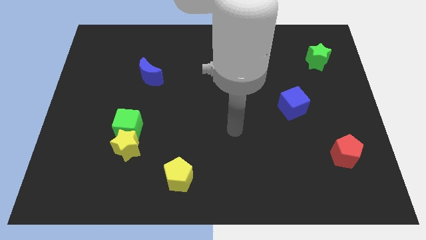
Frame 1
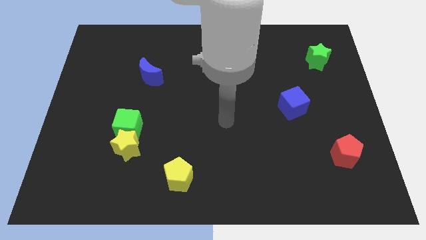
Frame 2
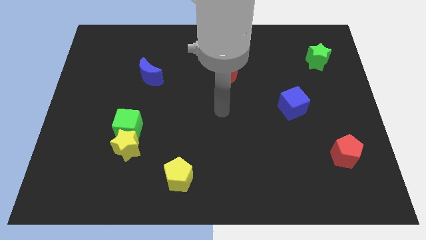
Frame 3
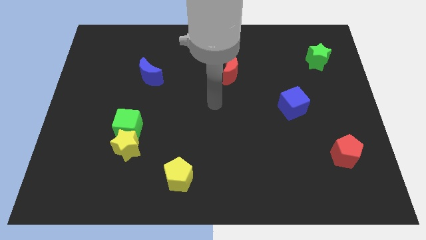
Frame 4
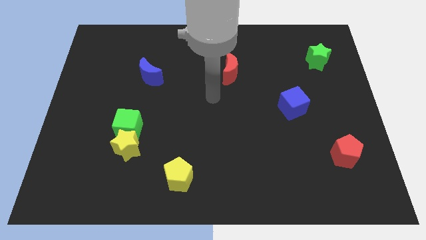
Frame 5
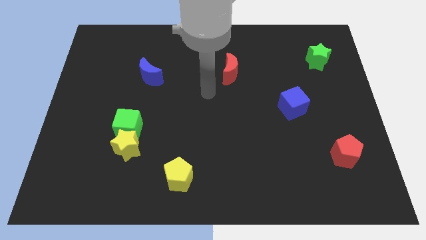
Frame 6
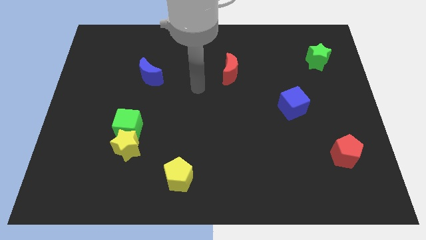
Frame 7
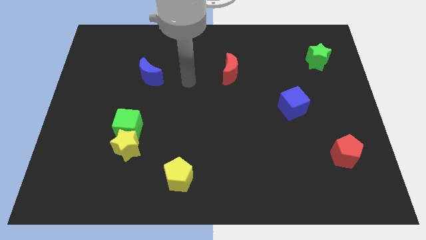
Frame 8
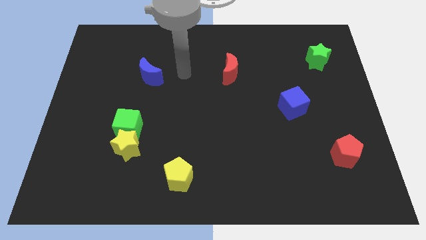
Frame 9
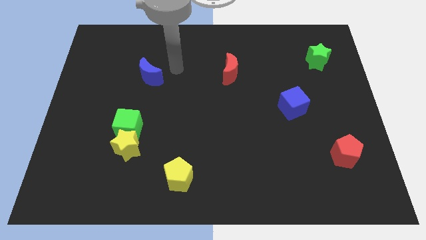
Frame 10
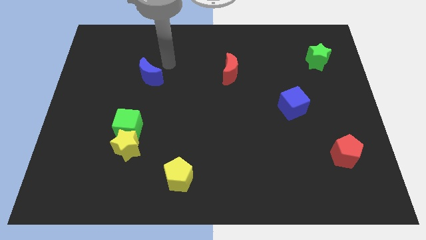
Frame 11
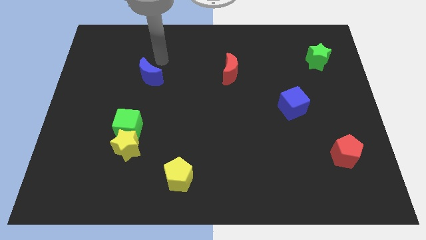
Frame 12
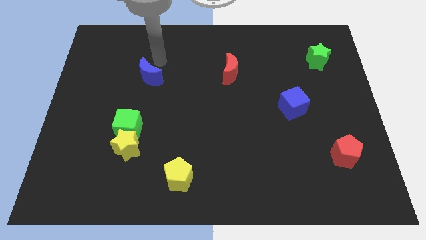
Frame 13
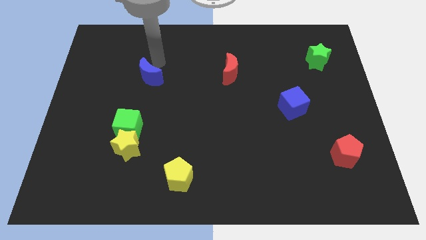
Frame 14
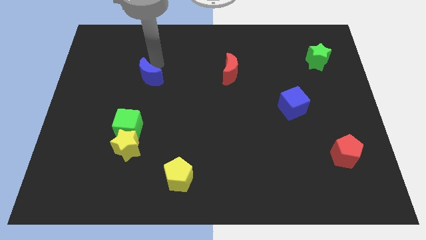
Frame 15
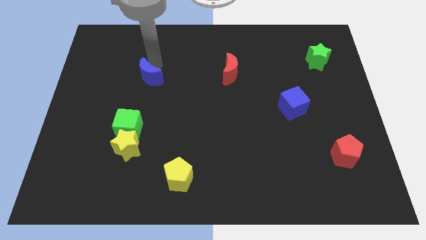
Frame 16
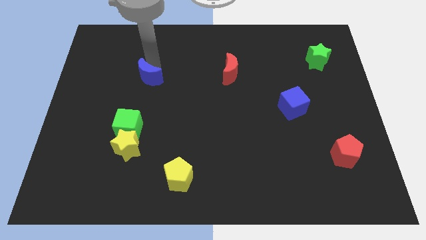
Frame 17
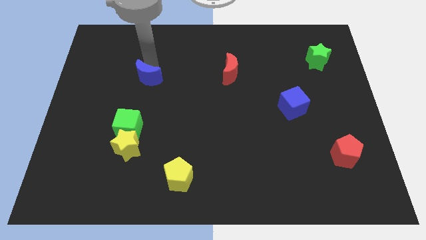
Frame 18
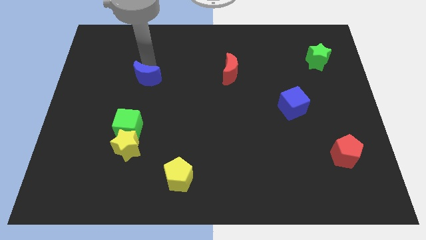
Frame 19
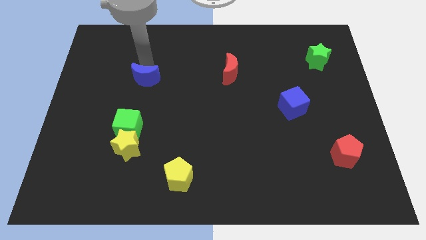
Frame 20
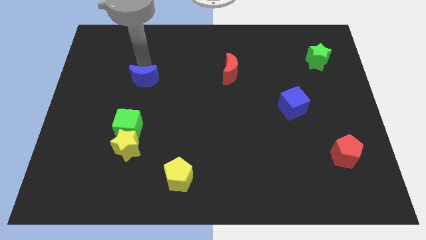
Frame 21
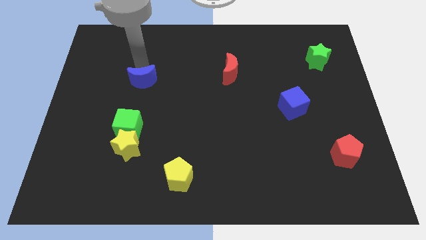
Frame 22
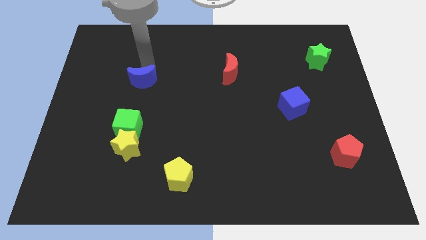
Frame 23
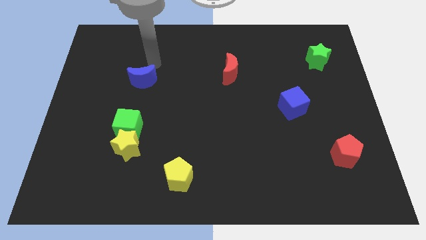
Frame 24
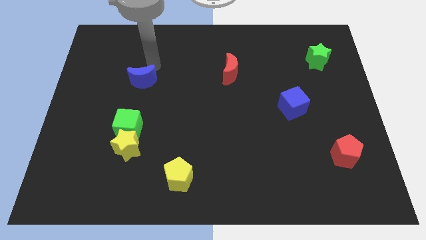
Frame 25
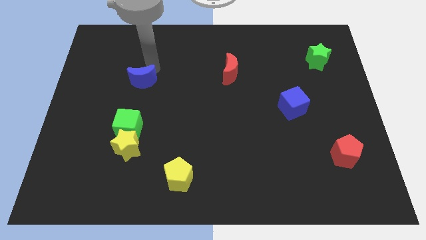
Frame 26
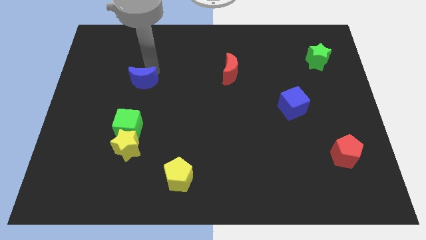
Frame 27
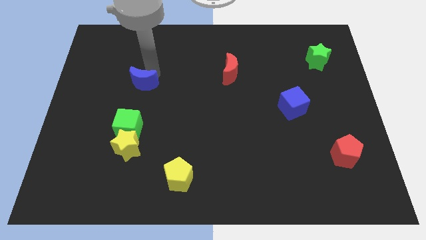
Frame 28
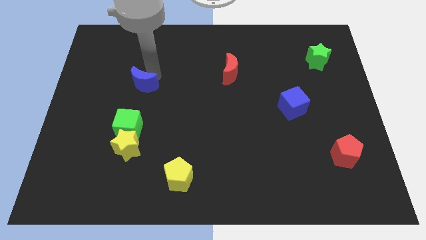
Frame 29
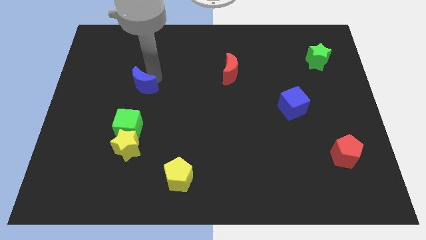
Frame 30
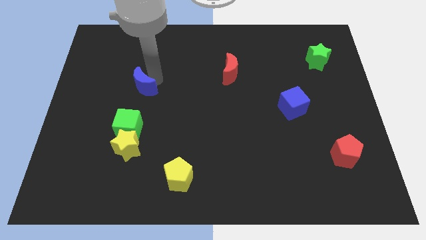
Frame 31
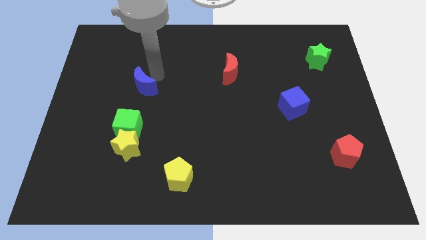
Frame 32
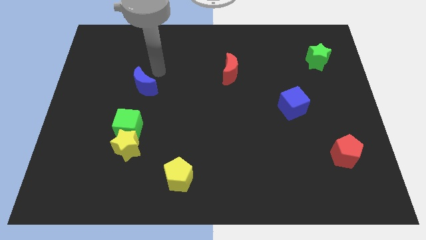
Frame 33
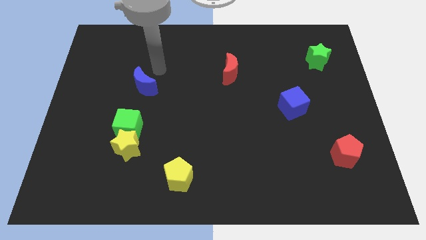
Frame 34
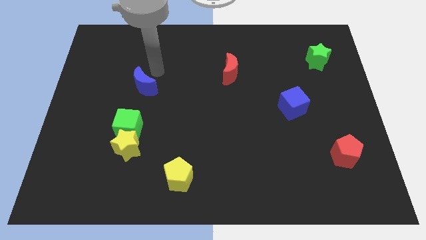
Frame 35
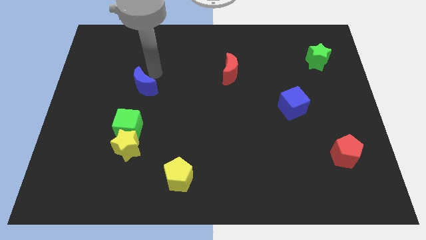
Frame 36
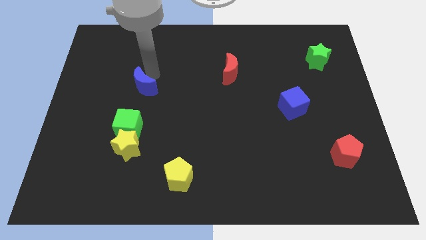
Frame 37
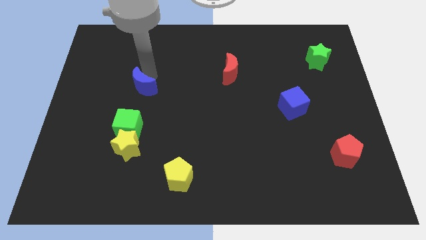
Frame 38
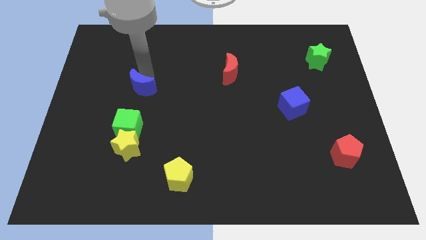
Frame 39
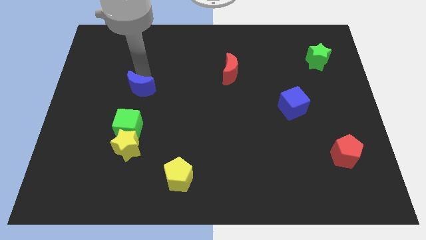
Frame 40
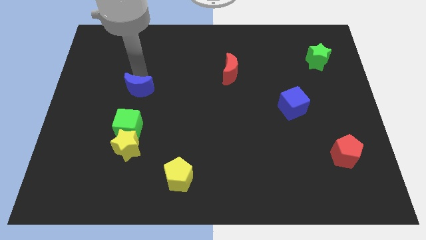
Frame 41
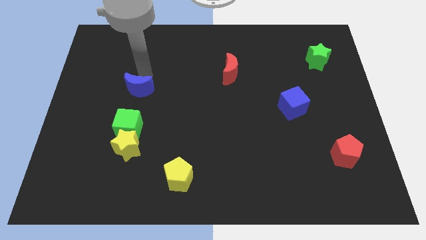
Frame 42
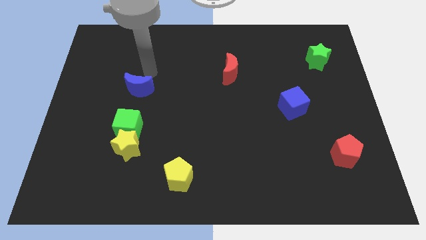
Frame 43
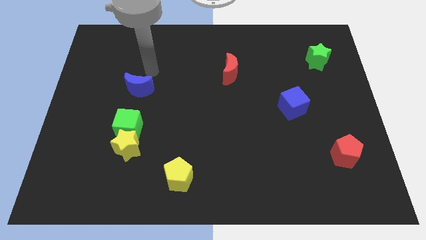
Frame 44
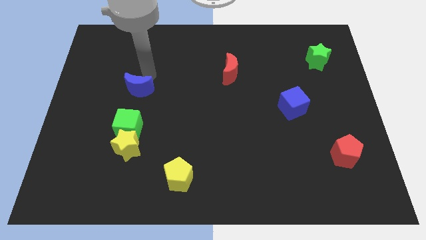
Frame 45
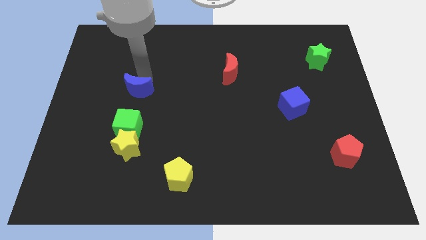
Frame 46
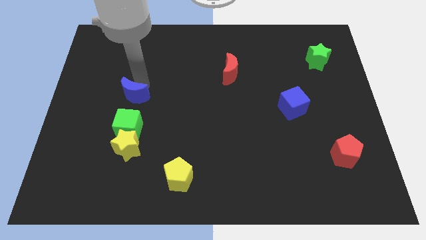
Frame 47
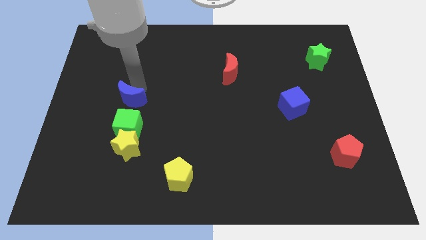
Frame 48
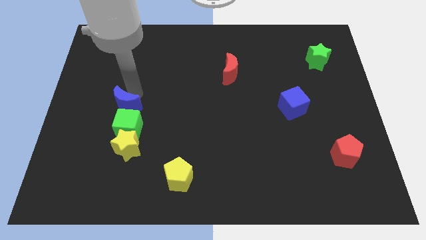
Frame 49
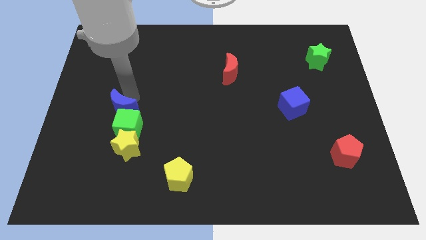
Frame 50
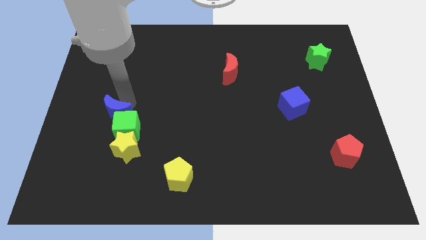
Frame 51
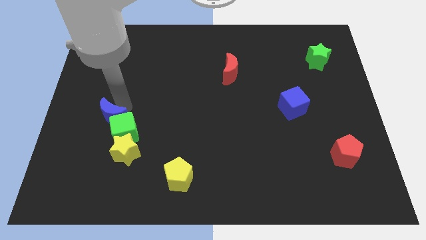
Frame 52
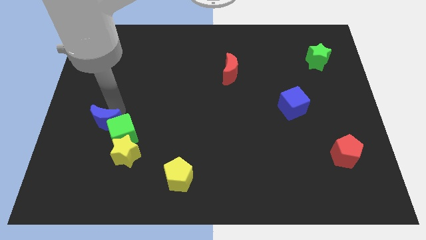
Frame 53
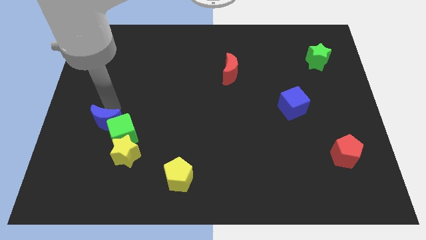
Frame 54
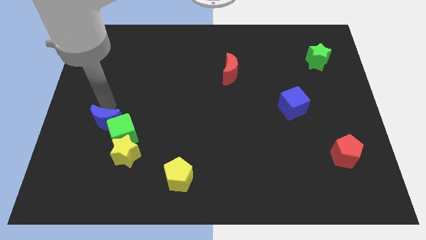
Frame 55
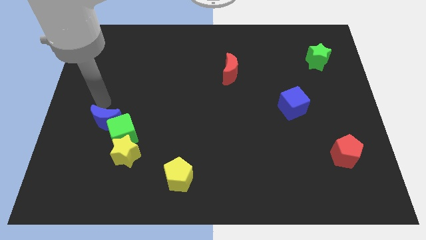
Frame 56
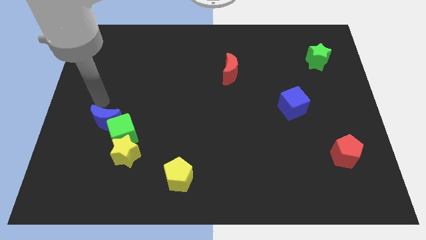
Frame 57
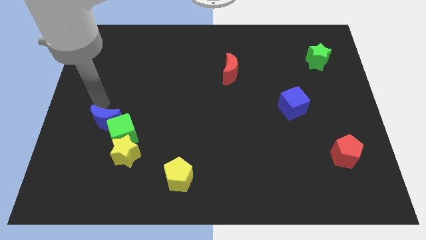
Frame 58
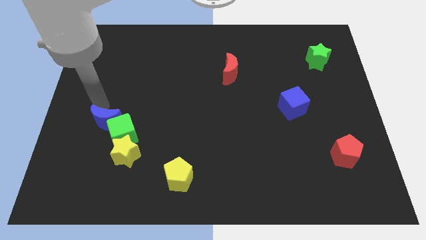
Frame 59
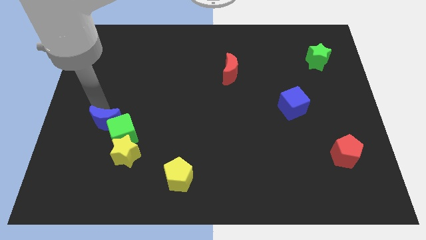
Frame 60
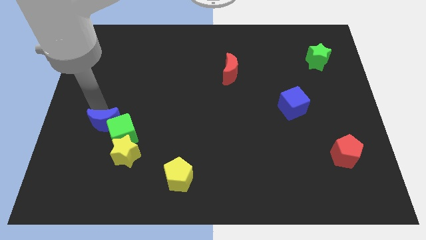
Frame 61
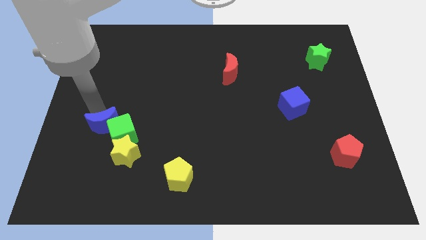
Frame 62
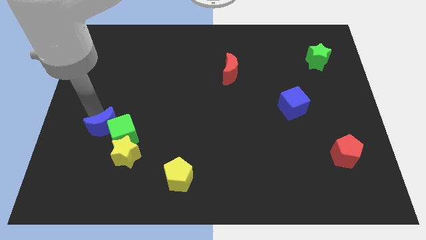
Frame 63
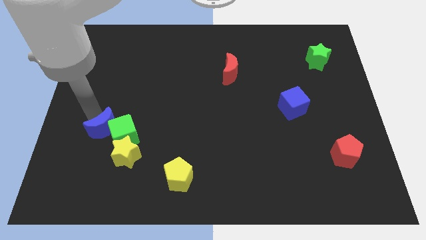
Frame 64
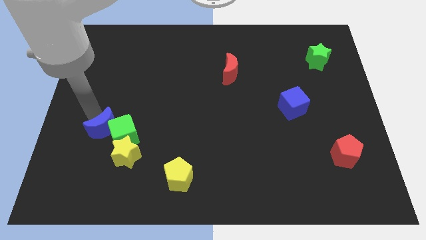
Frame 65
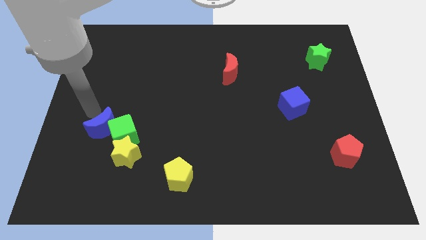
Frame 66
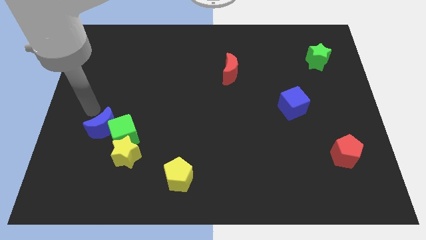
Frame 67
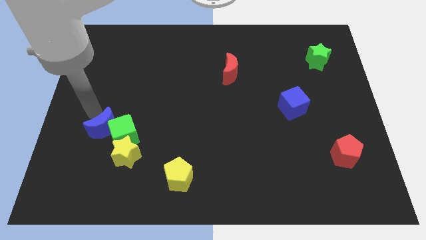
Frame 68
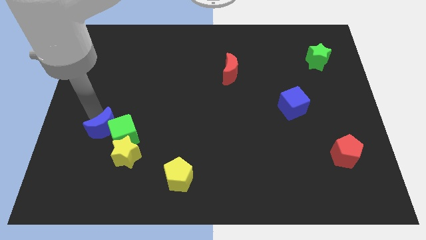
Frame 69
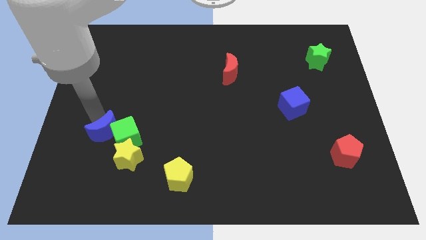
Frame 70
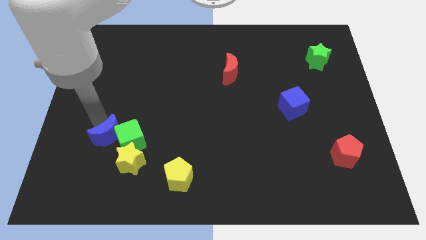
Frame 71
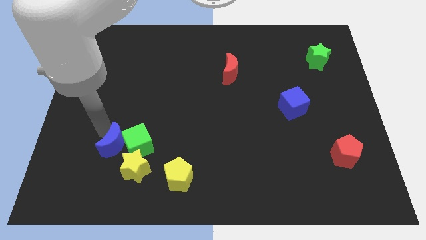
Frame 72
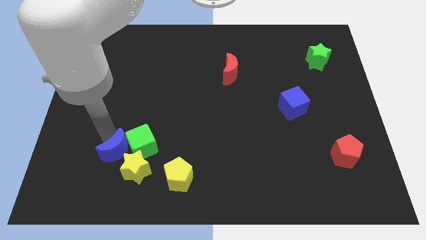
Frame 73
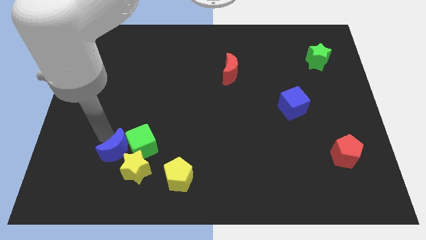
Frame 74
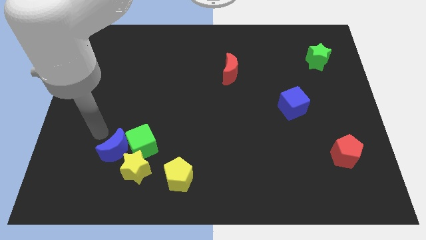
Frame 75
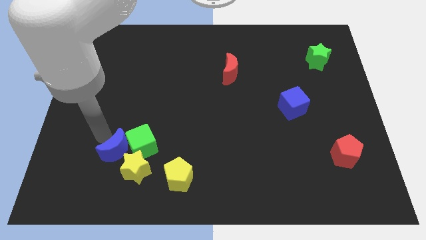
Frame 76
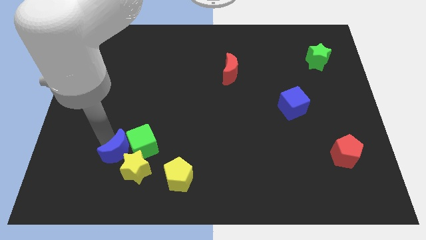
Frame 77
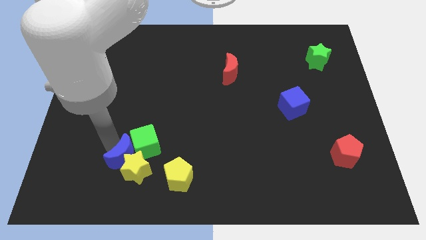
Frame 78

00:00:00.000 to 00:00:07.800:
move the blue moon to the yellow star
